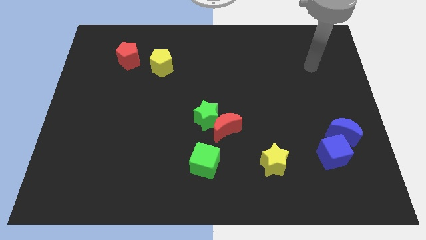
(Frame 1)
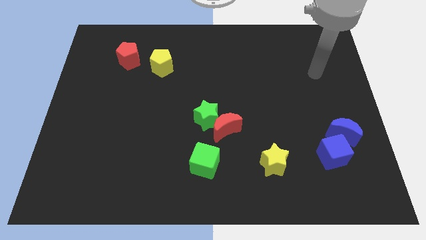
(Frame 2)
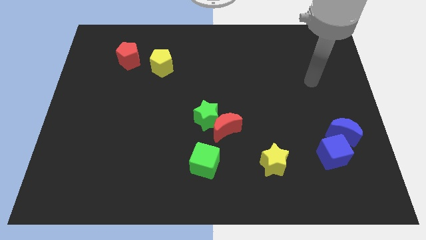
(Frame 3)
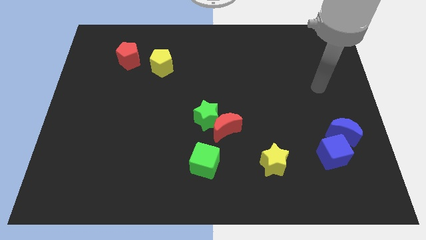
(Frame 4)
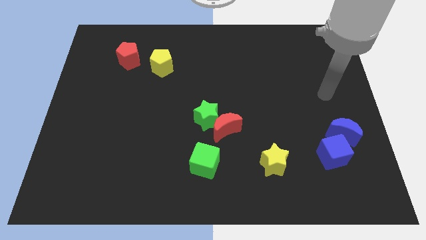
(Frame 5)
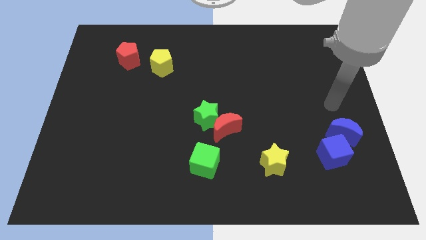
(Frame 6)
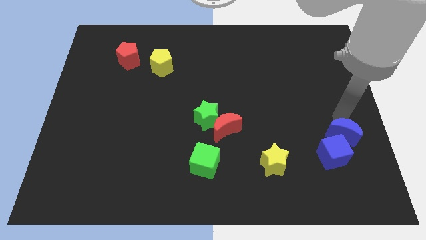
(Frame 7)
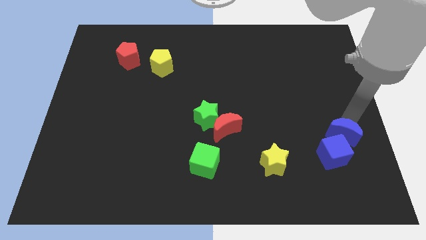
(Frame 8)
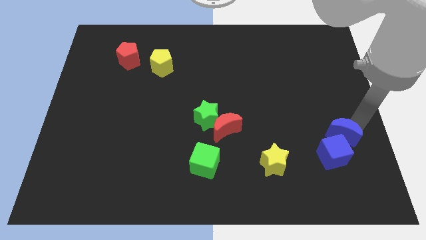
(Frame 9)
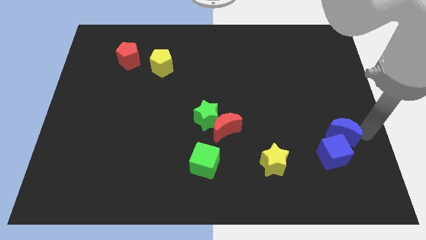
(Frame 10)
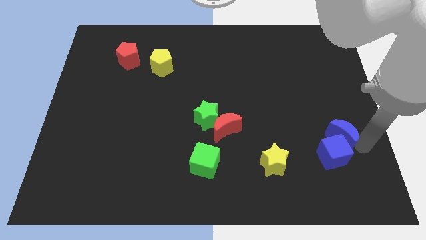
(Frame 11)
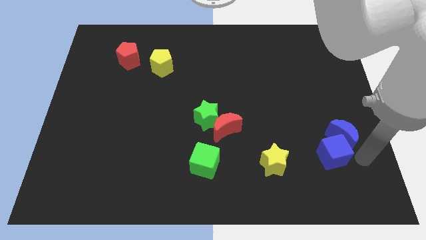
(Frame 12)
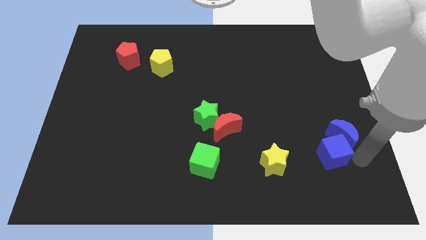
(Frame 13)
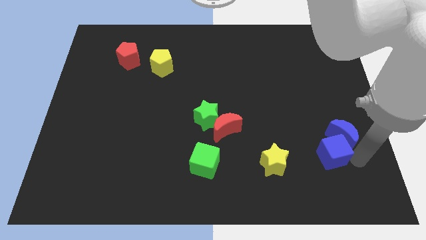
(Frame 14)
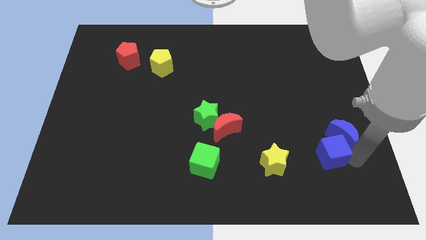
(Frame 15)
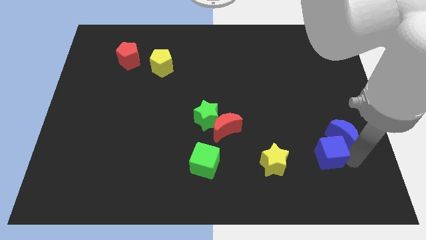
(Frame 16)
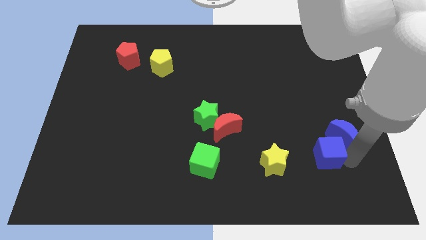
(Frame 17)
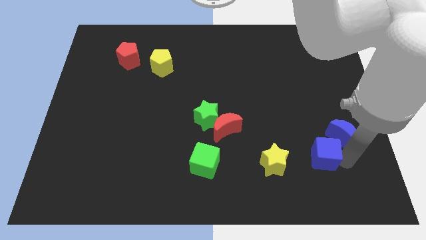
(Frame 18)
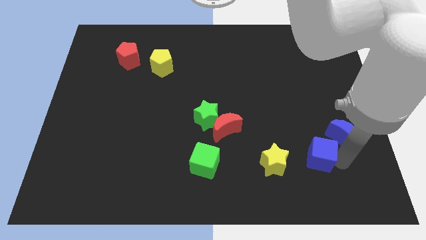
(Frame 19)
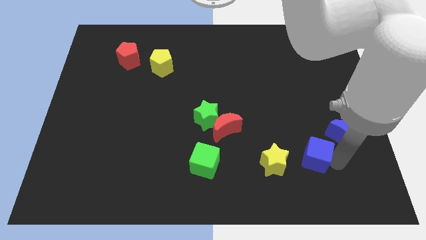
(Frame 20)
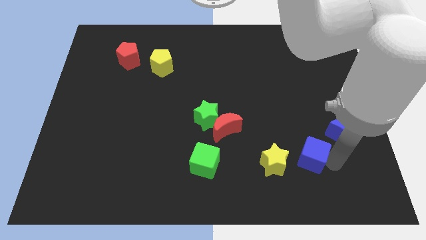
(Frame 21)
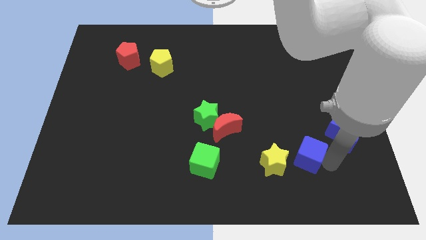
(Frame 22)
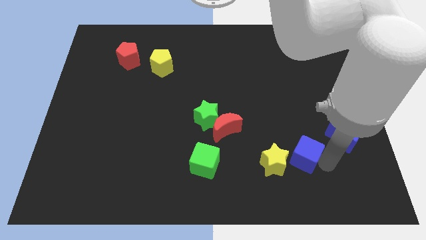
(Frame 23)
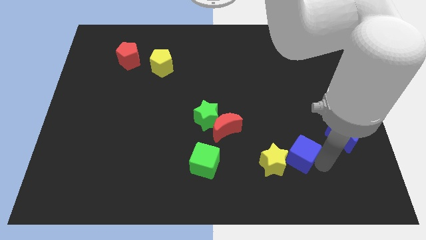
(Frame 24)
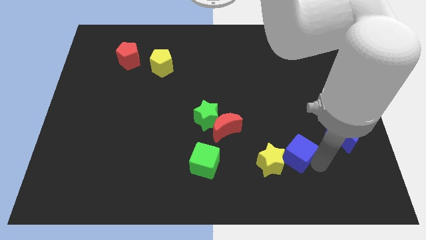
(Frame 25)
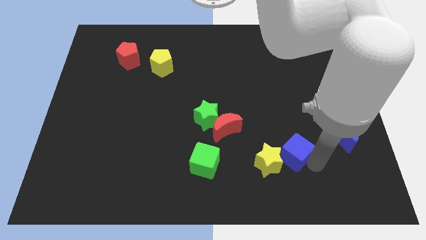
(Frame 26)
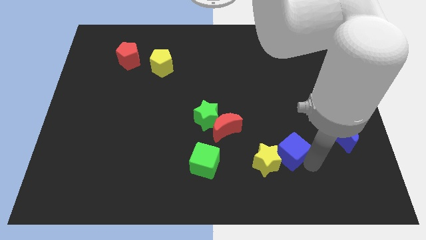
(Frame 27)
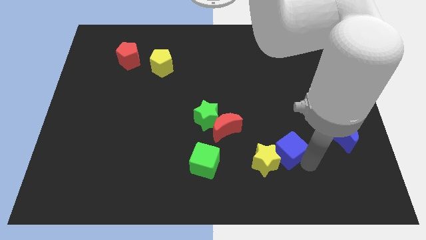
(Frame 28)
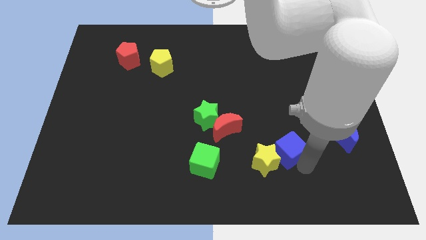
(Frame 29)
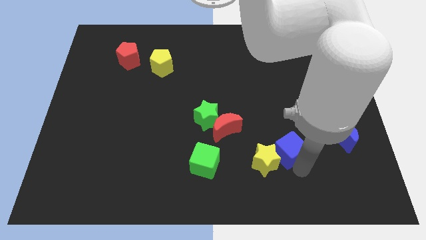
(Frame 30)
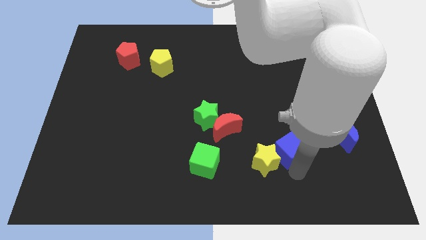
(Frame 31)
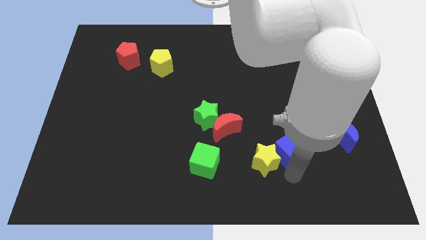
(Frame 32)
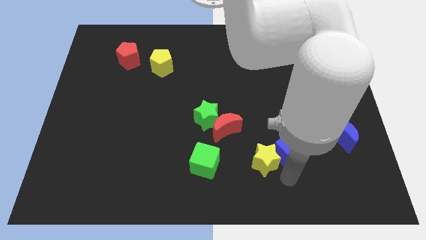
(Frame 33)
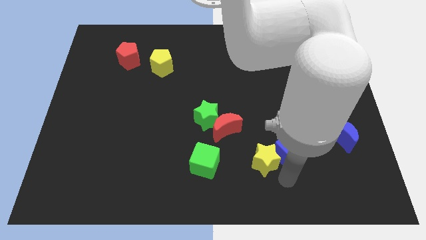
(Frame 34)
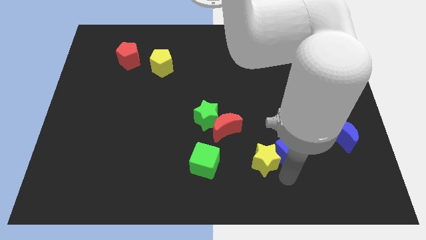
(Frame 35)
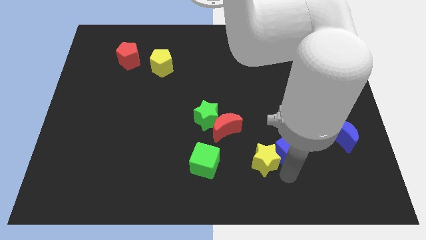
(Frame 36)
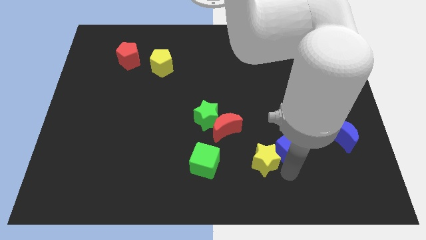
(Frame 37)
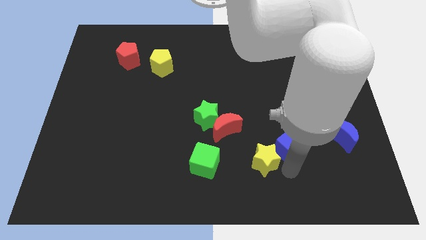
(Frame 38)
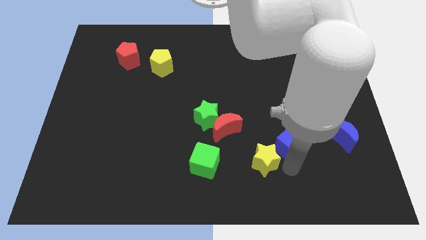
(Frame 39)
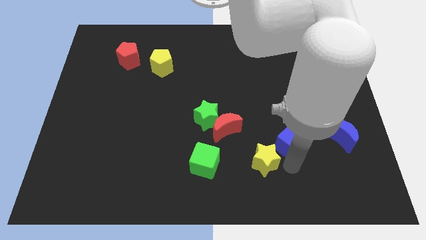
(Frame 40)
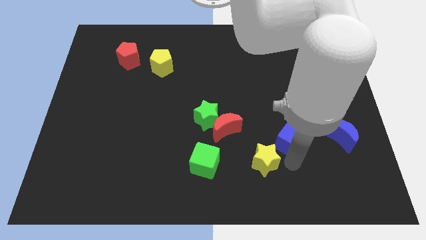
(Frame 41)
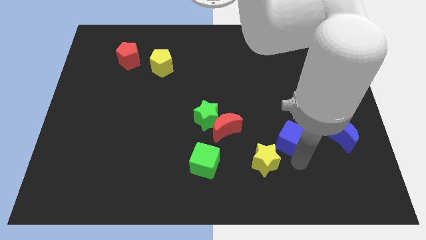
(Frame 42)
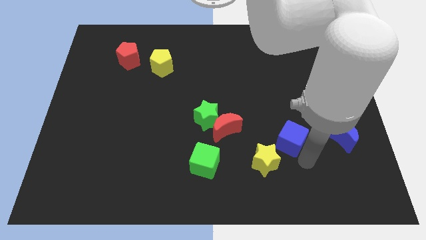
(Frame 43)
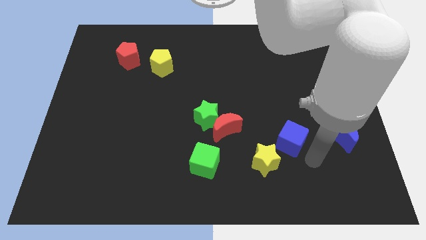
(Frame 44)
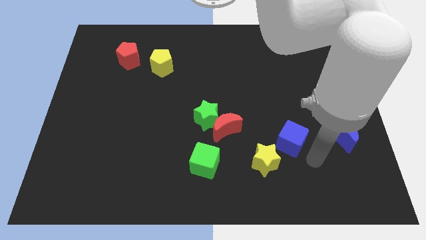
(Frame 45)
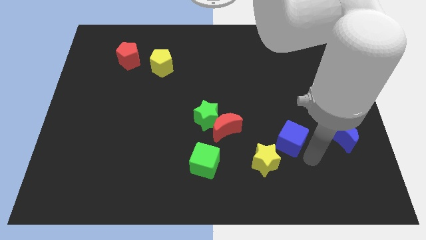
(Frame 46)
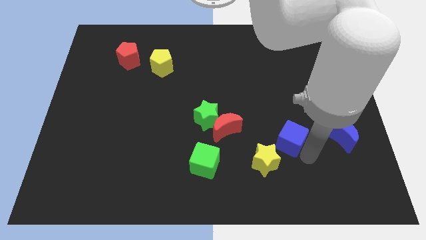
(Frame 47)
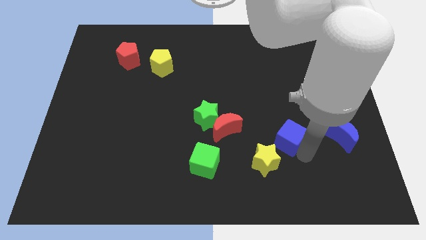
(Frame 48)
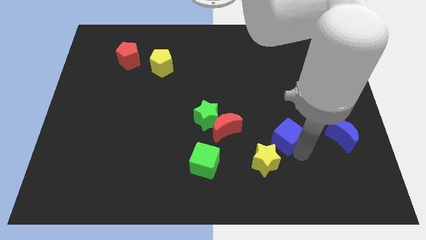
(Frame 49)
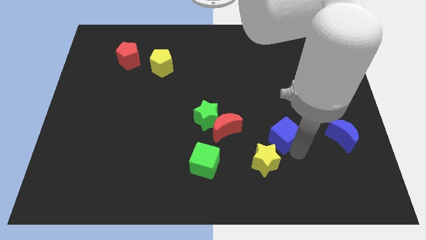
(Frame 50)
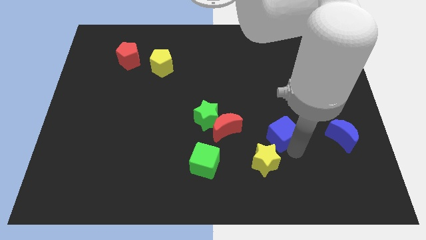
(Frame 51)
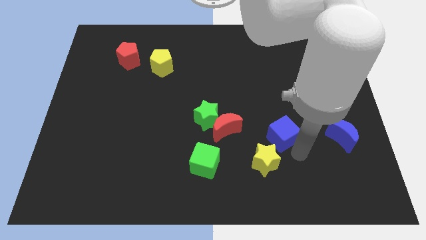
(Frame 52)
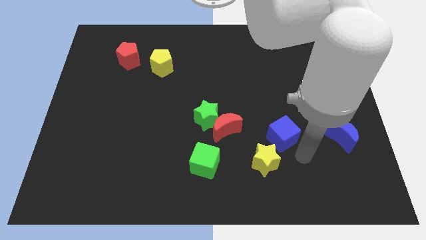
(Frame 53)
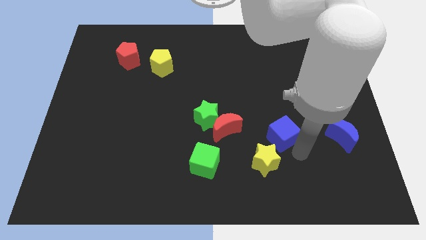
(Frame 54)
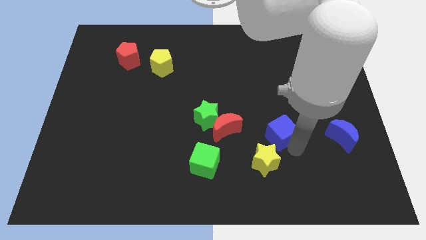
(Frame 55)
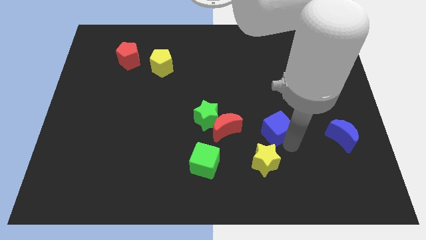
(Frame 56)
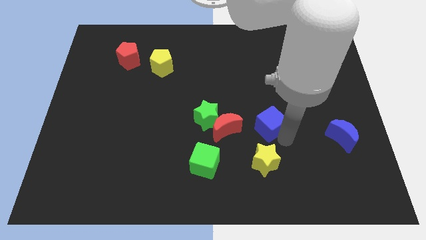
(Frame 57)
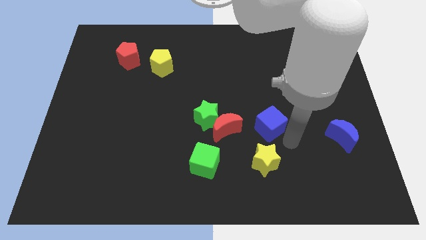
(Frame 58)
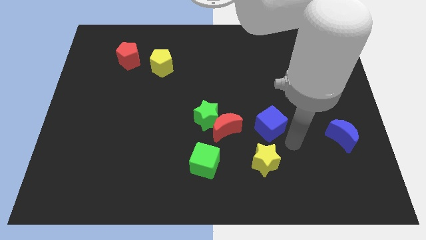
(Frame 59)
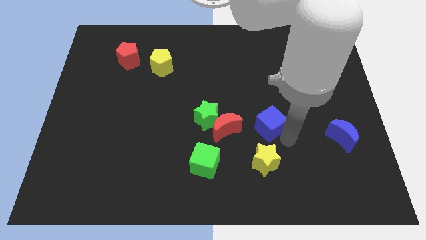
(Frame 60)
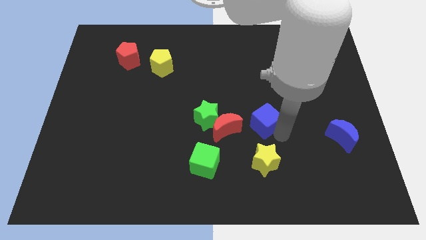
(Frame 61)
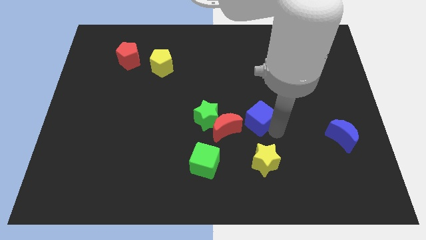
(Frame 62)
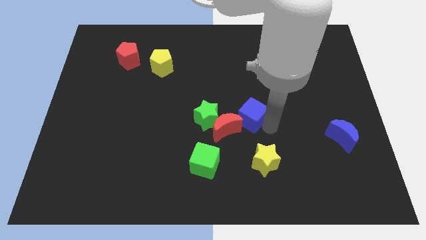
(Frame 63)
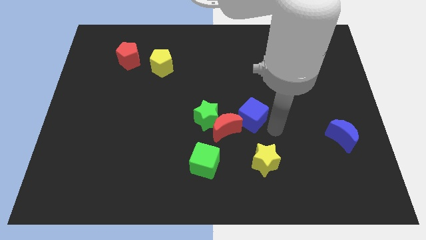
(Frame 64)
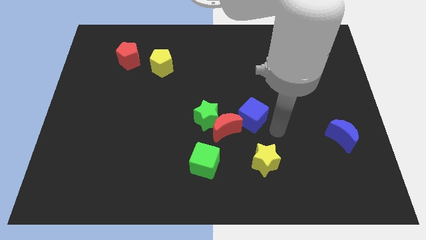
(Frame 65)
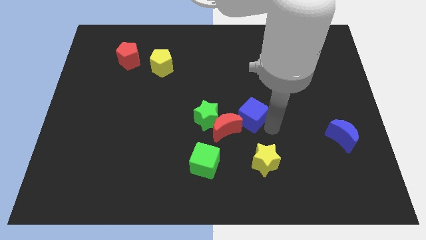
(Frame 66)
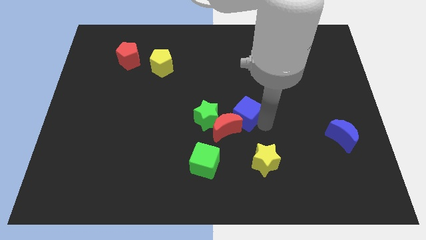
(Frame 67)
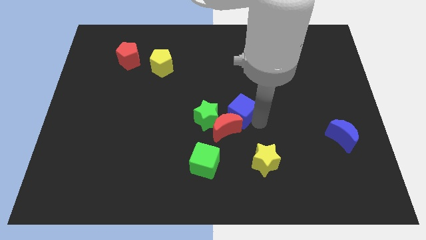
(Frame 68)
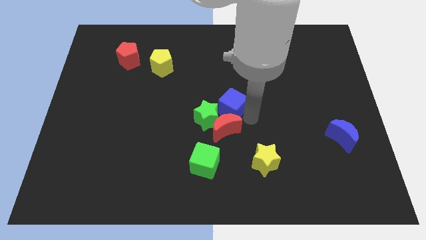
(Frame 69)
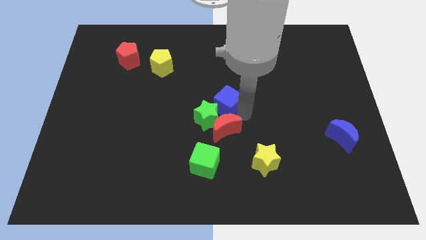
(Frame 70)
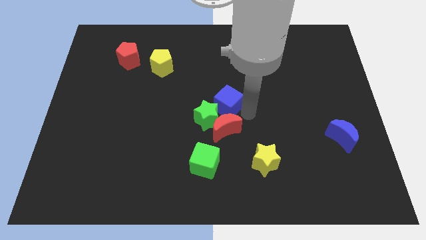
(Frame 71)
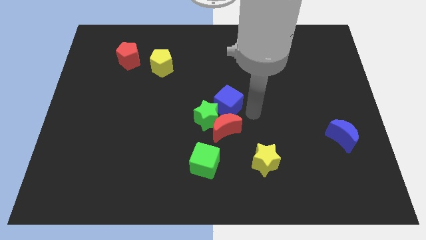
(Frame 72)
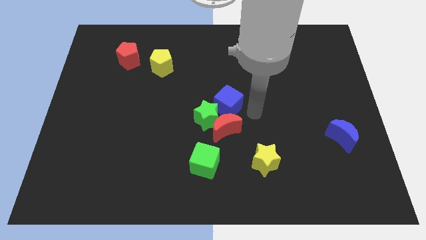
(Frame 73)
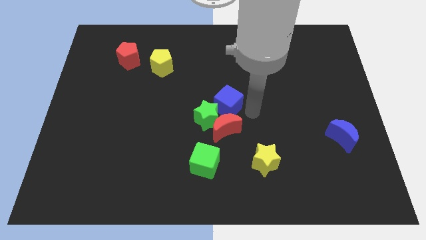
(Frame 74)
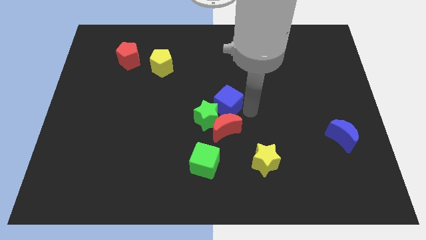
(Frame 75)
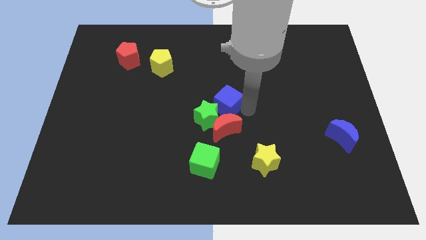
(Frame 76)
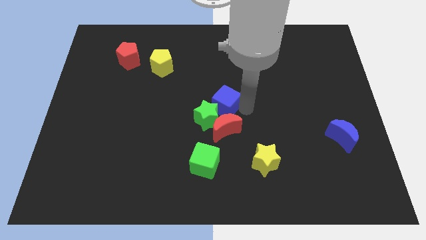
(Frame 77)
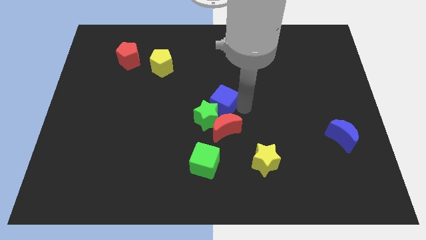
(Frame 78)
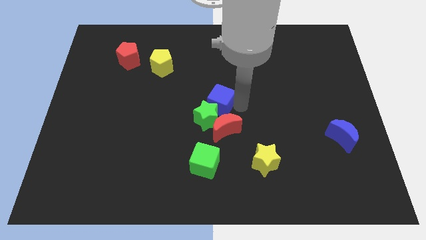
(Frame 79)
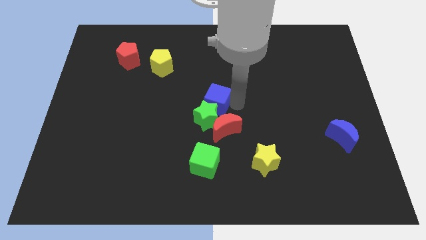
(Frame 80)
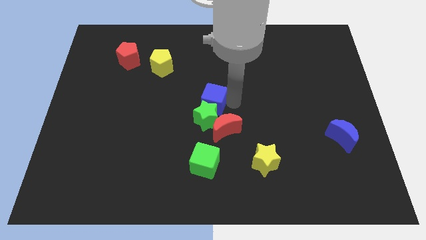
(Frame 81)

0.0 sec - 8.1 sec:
move the blue cube diagonally up and to the left of the green star

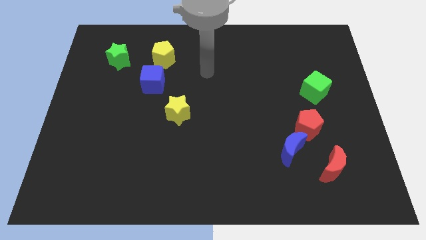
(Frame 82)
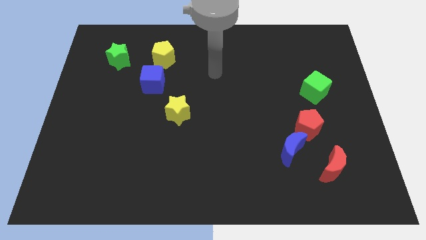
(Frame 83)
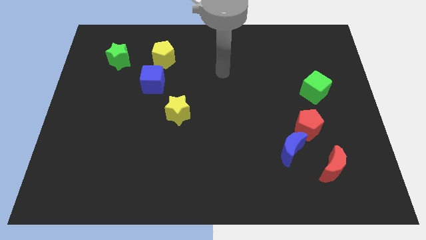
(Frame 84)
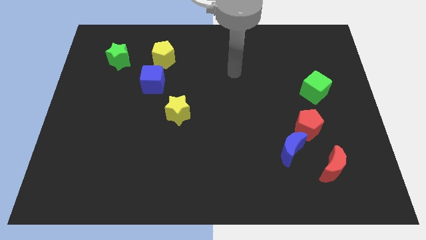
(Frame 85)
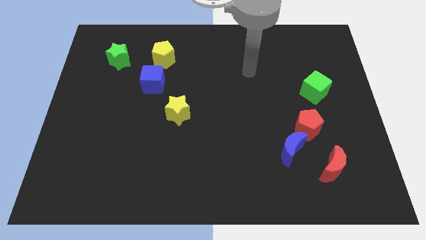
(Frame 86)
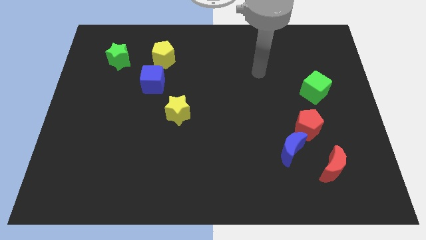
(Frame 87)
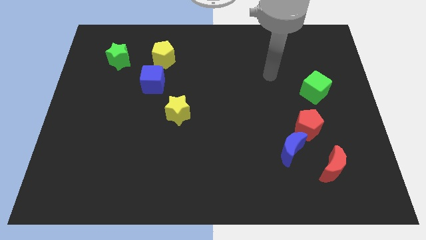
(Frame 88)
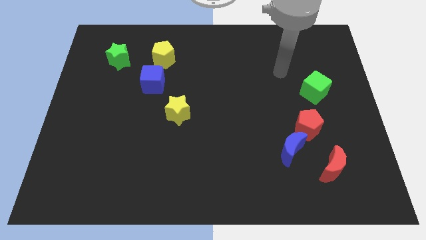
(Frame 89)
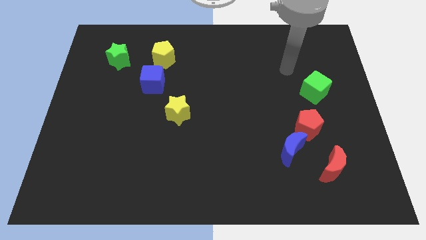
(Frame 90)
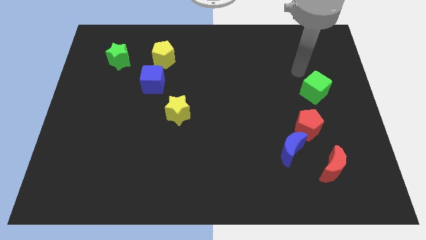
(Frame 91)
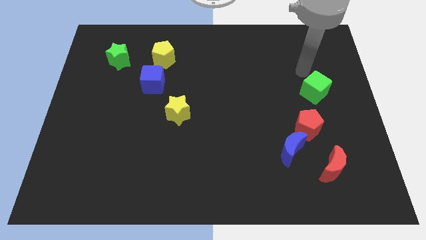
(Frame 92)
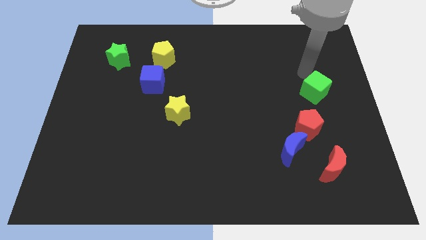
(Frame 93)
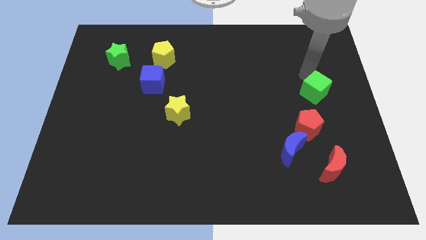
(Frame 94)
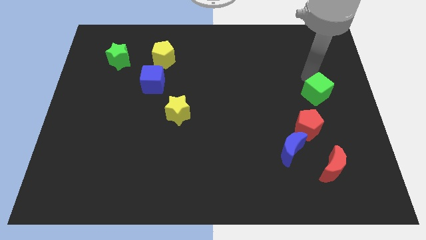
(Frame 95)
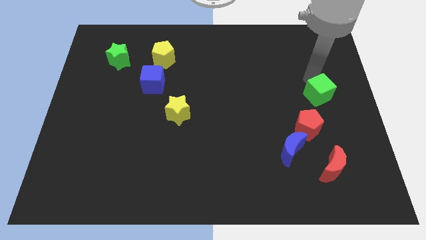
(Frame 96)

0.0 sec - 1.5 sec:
move the green cube to the top right side of the red pentagon
